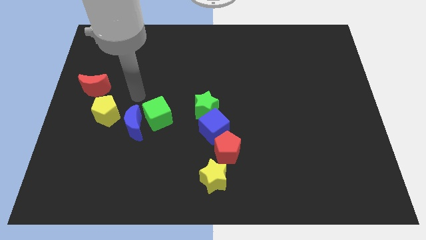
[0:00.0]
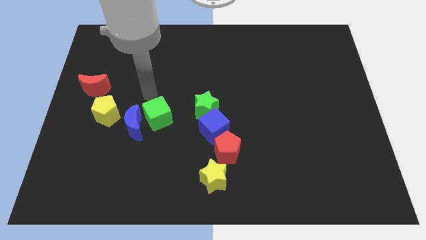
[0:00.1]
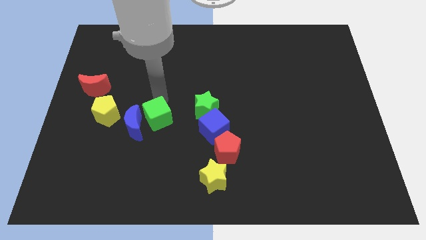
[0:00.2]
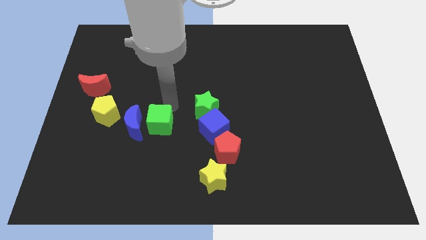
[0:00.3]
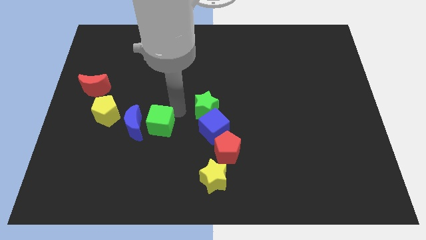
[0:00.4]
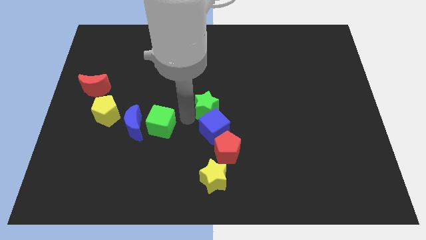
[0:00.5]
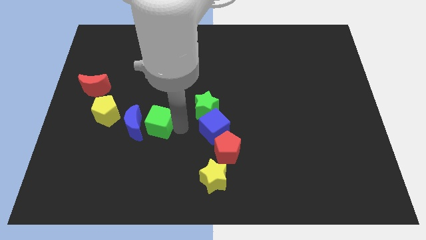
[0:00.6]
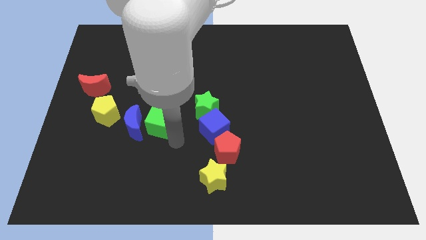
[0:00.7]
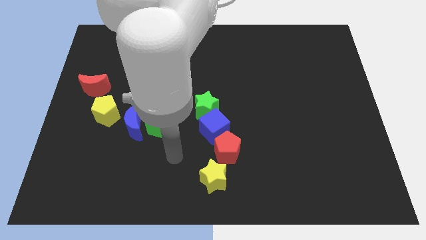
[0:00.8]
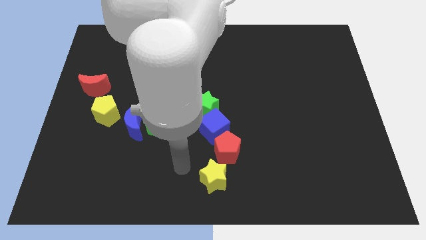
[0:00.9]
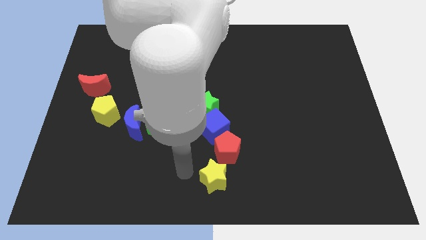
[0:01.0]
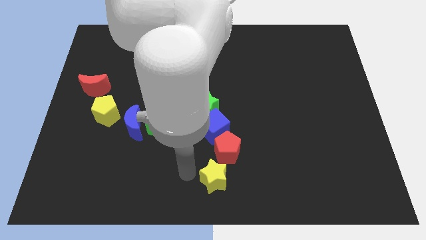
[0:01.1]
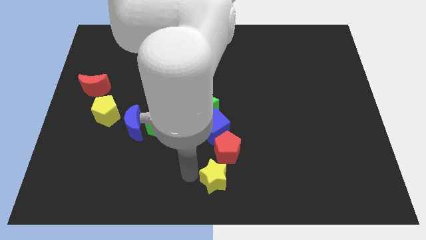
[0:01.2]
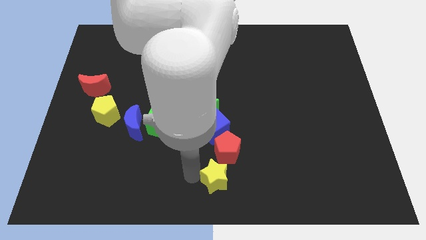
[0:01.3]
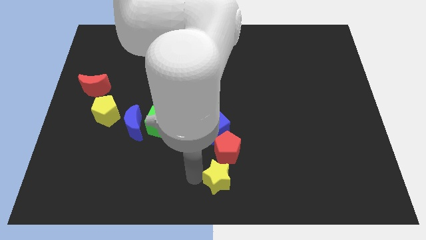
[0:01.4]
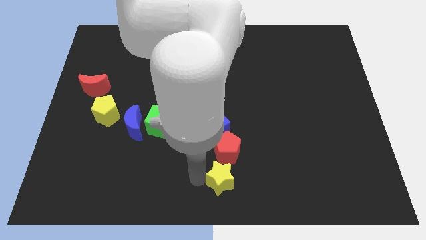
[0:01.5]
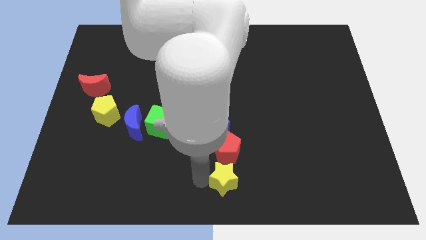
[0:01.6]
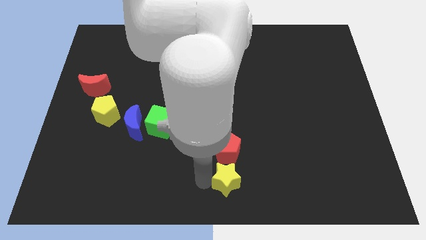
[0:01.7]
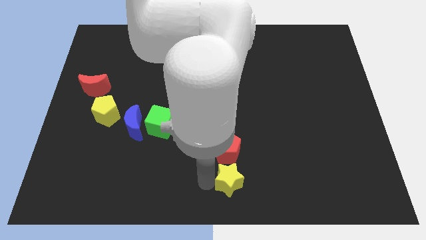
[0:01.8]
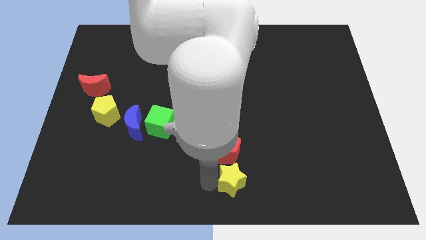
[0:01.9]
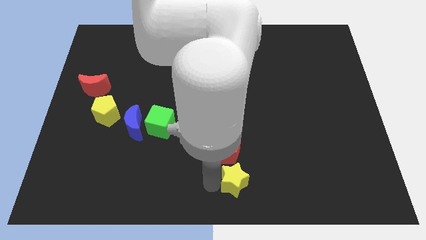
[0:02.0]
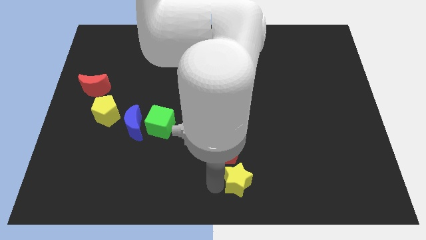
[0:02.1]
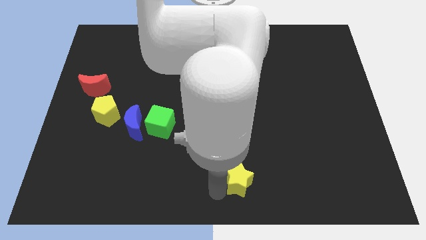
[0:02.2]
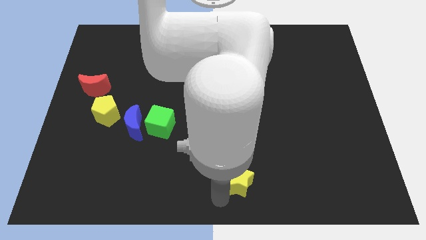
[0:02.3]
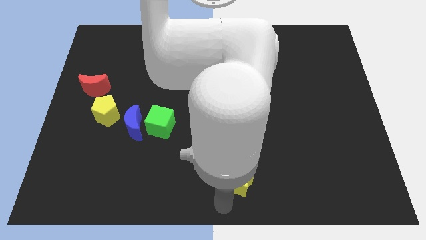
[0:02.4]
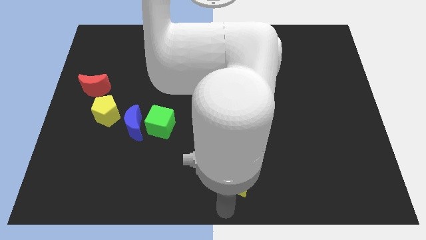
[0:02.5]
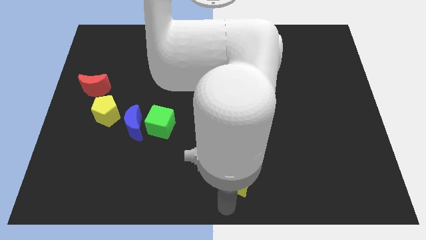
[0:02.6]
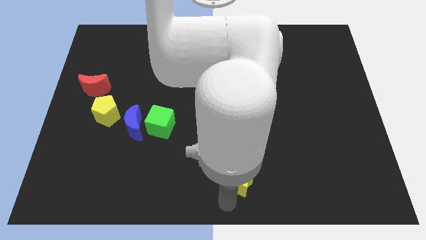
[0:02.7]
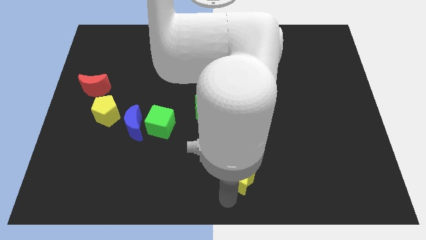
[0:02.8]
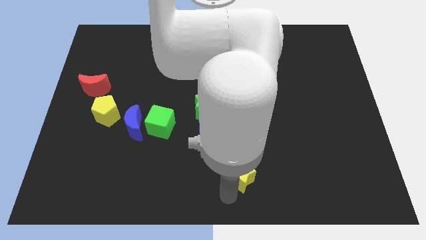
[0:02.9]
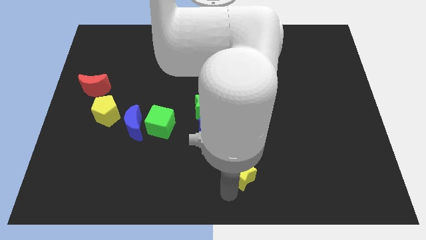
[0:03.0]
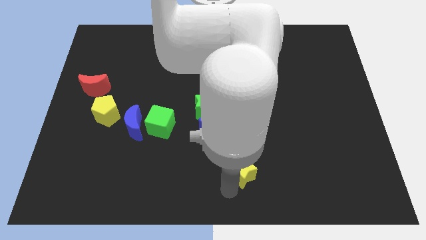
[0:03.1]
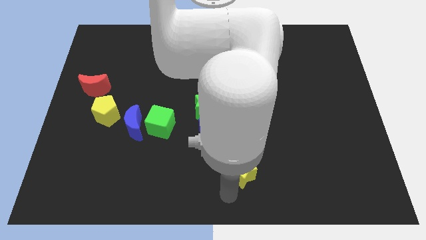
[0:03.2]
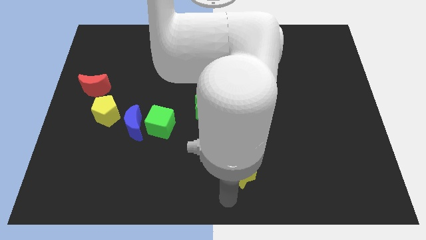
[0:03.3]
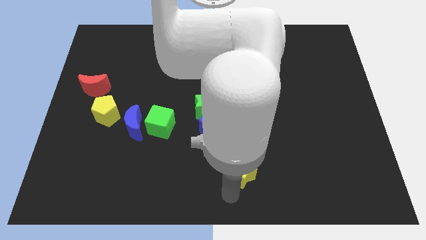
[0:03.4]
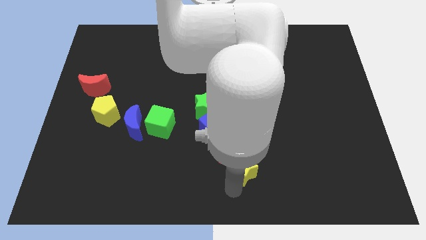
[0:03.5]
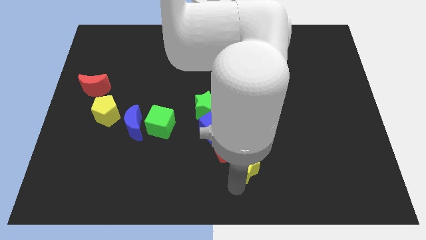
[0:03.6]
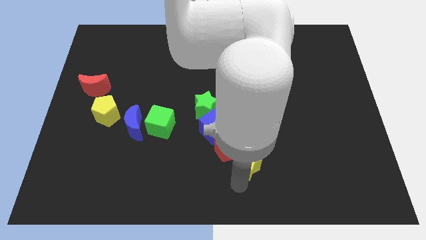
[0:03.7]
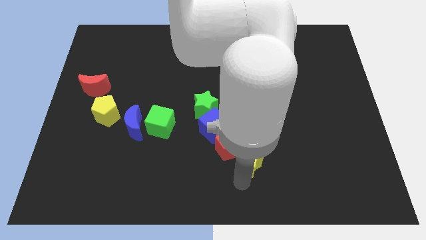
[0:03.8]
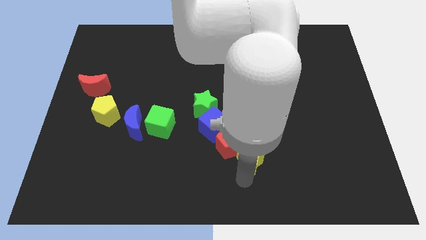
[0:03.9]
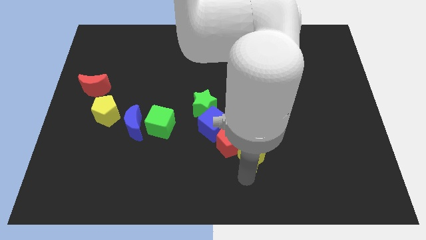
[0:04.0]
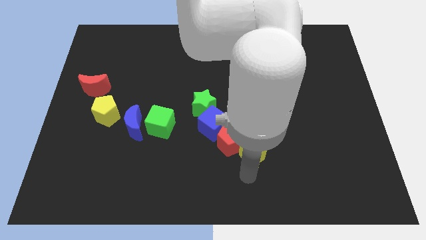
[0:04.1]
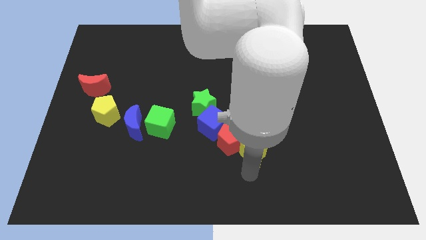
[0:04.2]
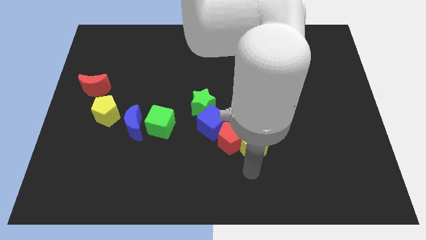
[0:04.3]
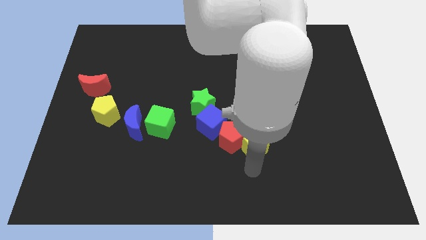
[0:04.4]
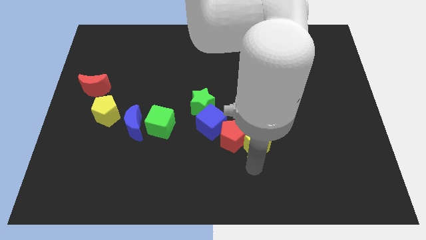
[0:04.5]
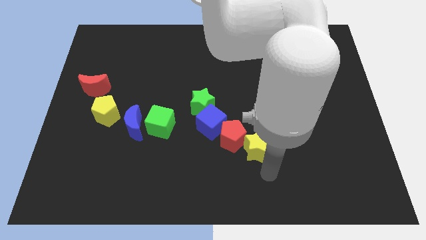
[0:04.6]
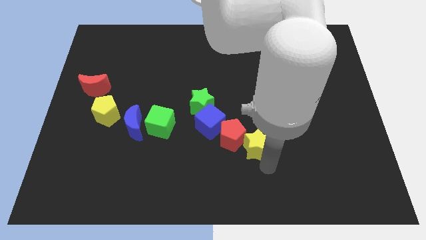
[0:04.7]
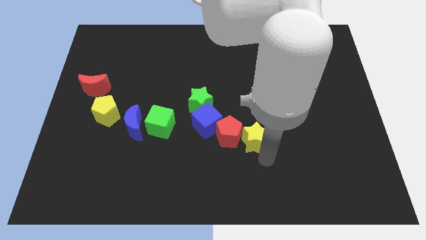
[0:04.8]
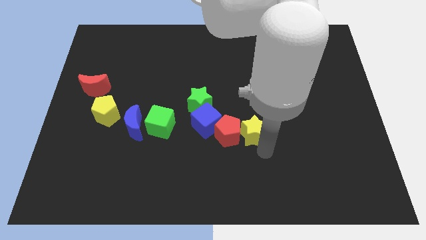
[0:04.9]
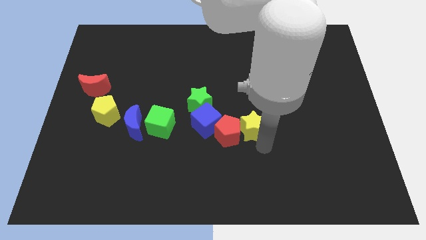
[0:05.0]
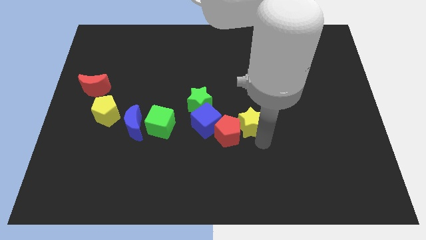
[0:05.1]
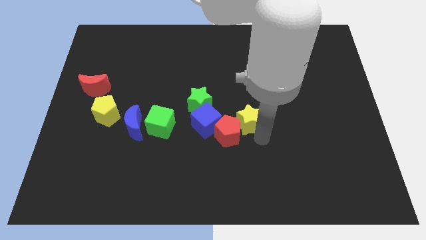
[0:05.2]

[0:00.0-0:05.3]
push the yellow star above the red pentagon

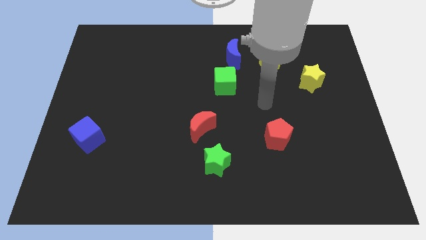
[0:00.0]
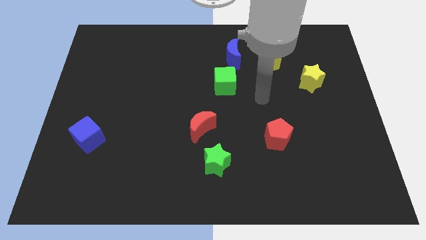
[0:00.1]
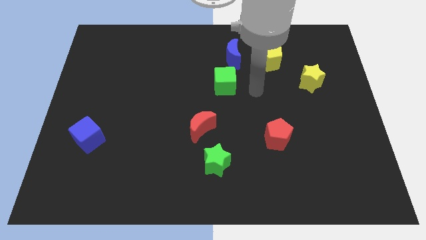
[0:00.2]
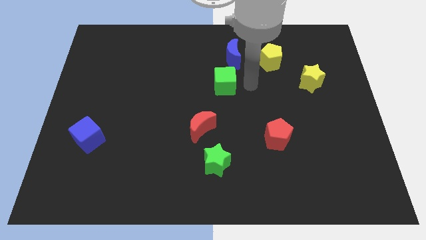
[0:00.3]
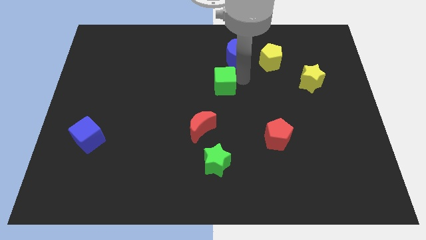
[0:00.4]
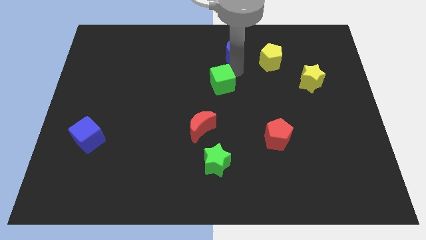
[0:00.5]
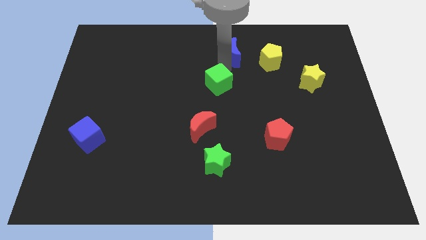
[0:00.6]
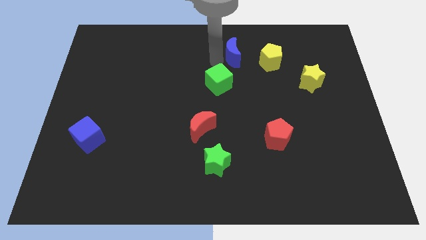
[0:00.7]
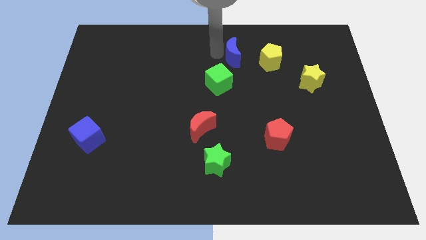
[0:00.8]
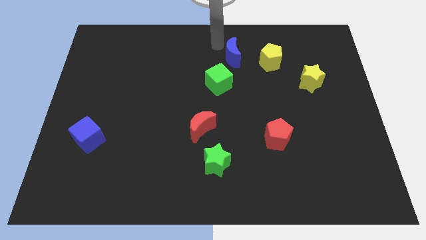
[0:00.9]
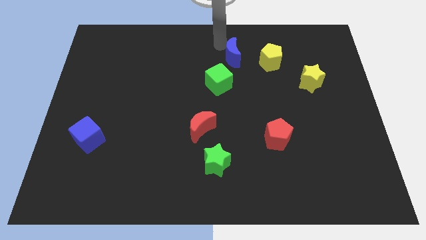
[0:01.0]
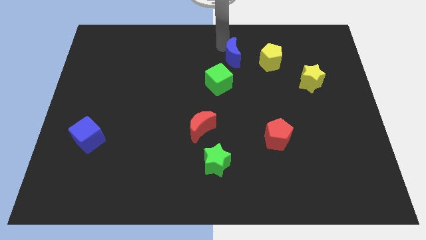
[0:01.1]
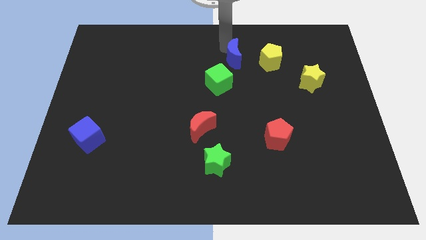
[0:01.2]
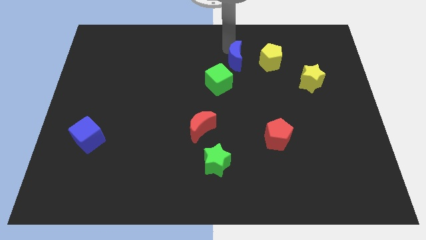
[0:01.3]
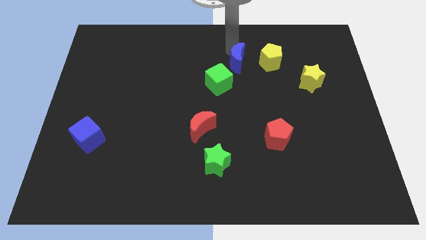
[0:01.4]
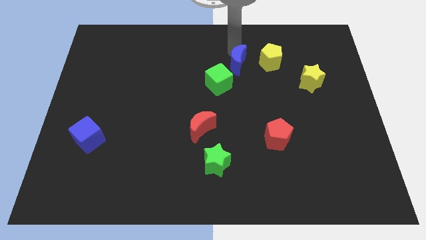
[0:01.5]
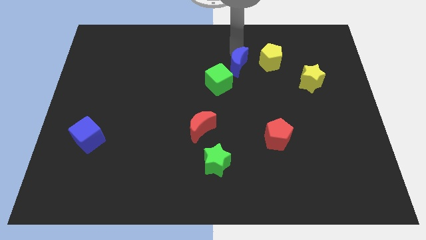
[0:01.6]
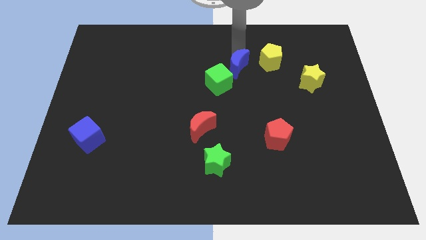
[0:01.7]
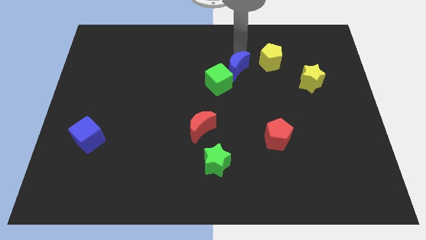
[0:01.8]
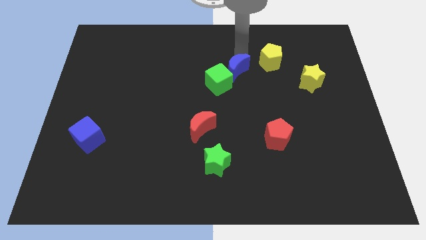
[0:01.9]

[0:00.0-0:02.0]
push the blue moon just right of the green cube
